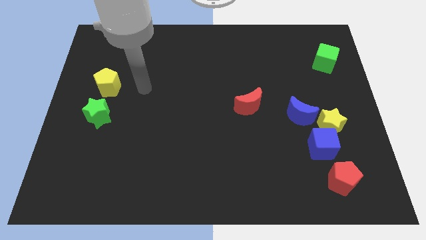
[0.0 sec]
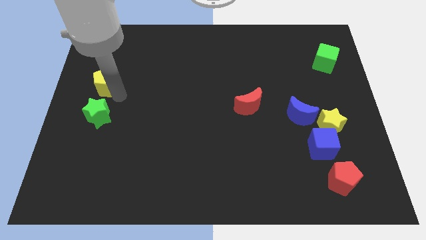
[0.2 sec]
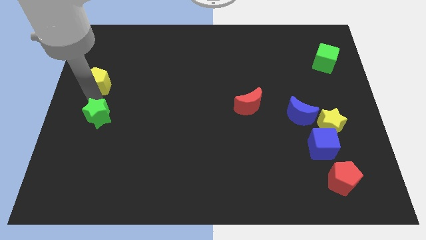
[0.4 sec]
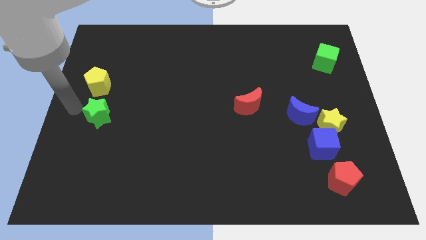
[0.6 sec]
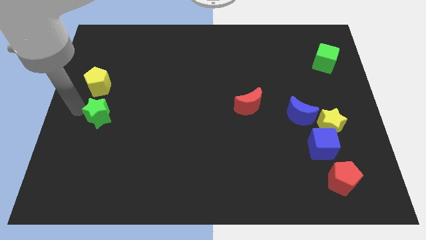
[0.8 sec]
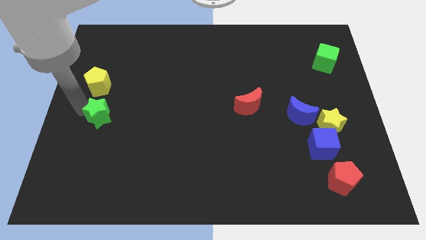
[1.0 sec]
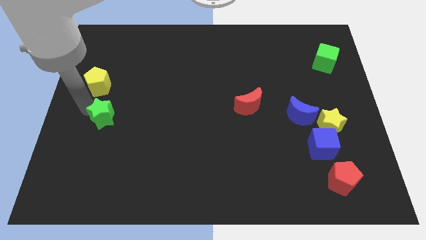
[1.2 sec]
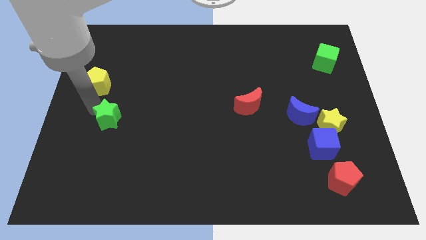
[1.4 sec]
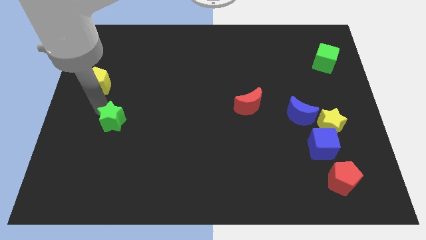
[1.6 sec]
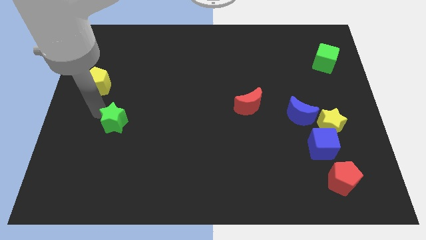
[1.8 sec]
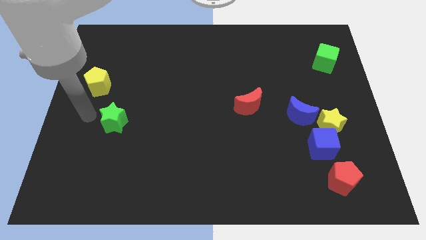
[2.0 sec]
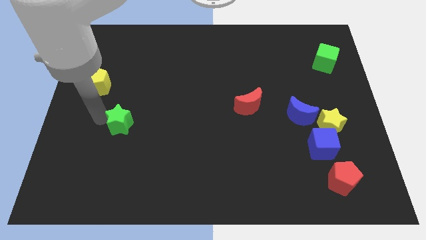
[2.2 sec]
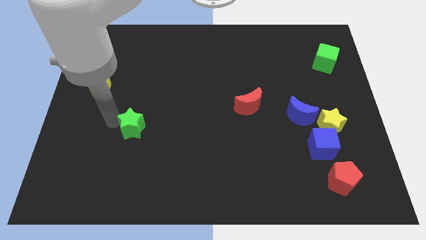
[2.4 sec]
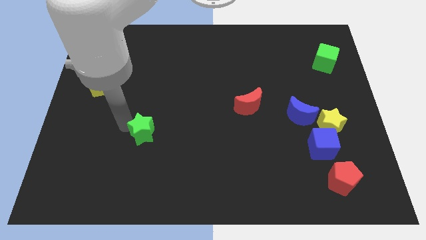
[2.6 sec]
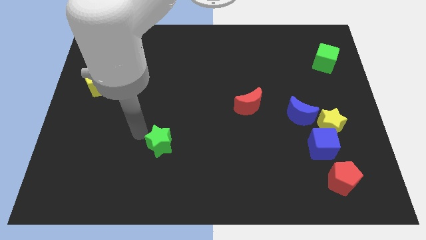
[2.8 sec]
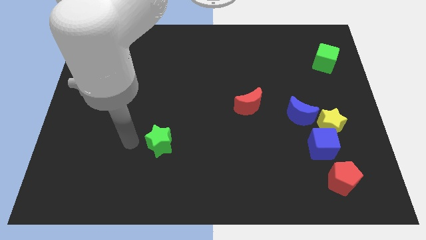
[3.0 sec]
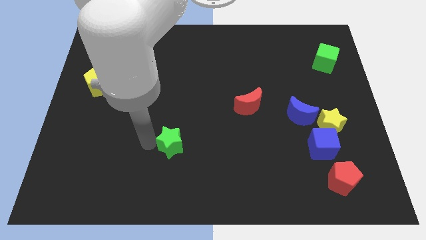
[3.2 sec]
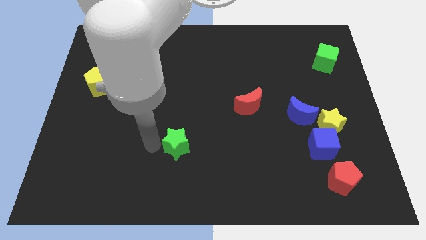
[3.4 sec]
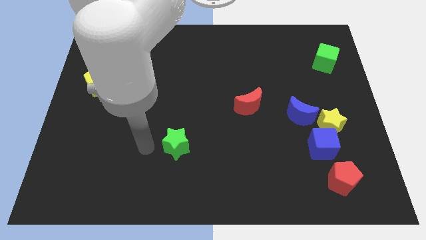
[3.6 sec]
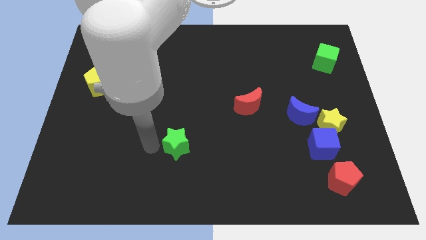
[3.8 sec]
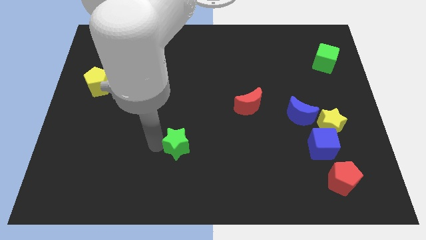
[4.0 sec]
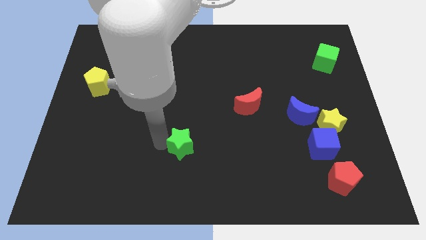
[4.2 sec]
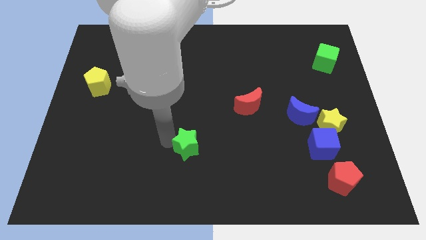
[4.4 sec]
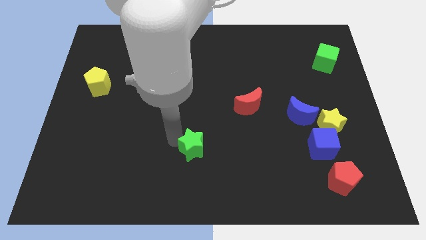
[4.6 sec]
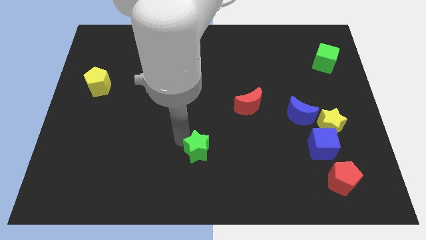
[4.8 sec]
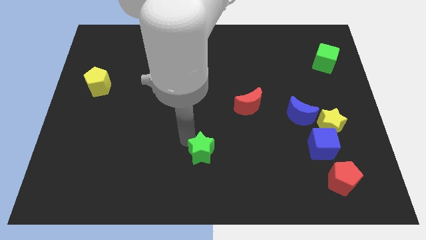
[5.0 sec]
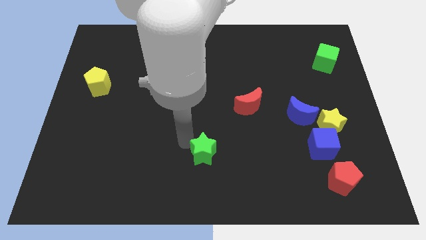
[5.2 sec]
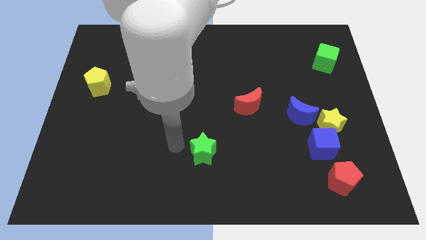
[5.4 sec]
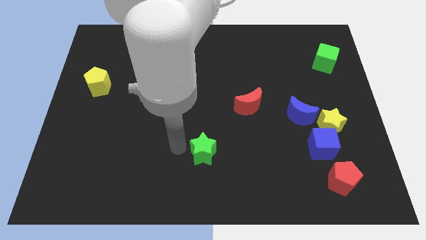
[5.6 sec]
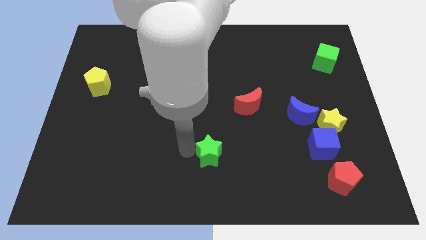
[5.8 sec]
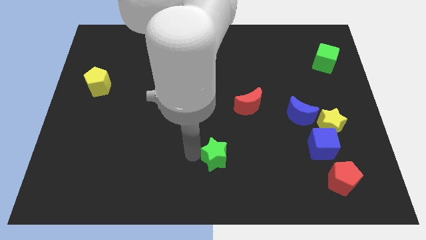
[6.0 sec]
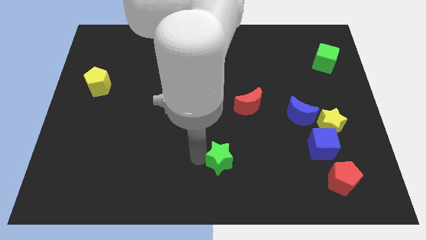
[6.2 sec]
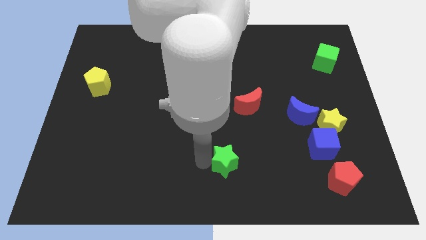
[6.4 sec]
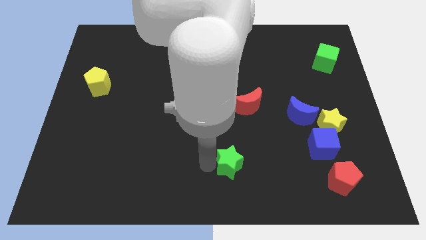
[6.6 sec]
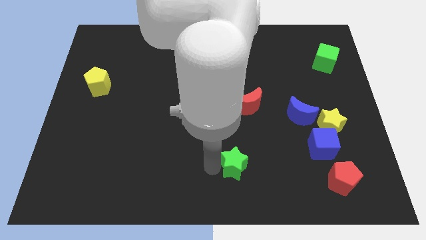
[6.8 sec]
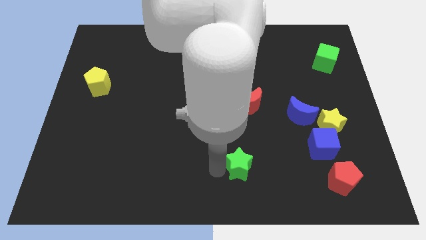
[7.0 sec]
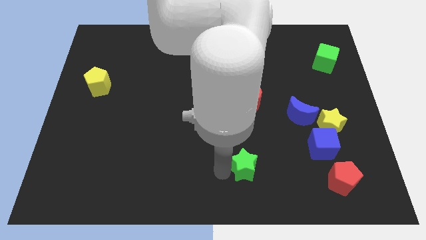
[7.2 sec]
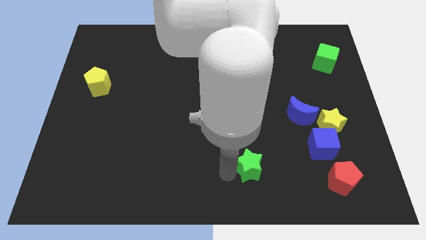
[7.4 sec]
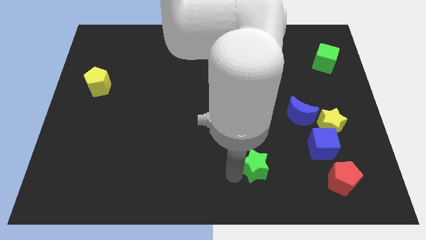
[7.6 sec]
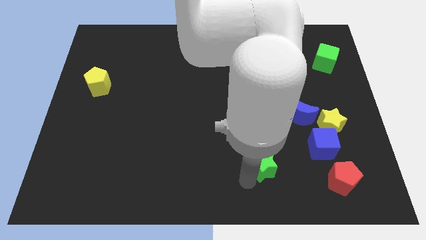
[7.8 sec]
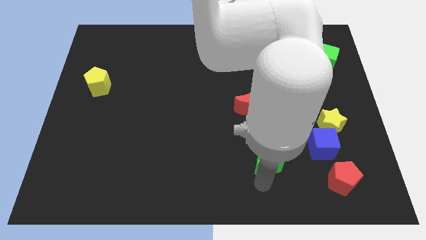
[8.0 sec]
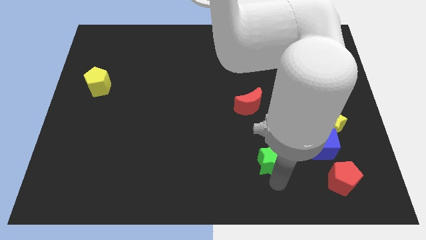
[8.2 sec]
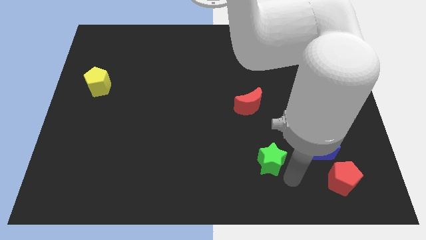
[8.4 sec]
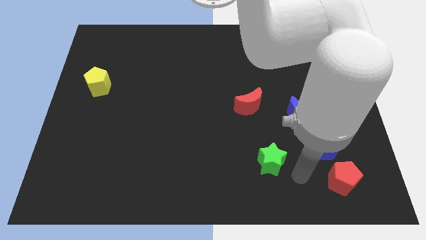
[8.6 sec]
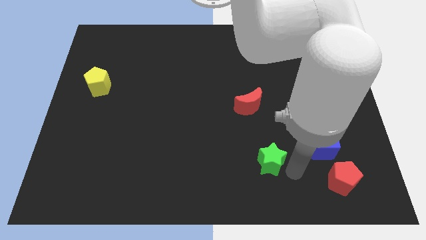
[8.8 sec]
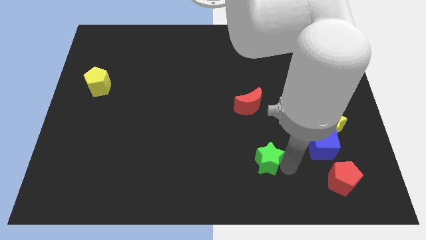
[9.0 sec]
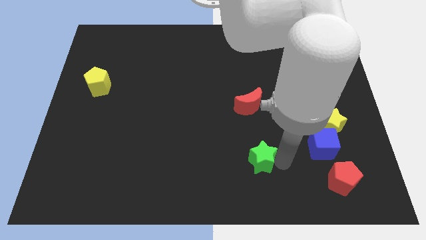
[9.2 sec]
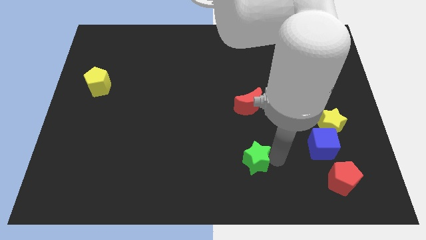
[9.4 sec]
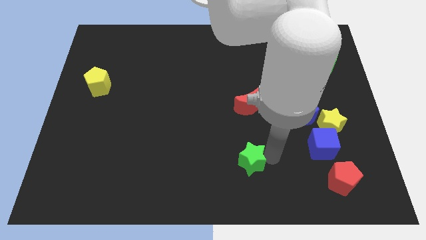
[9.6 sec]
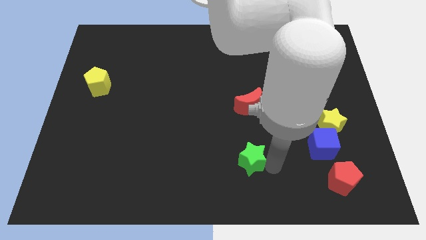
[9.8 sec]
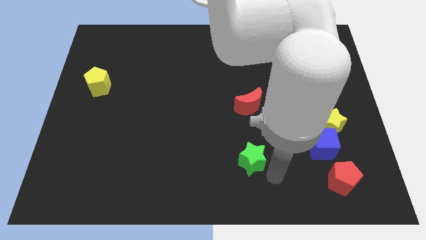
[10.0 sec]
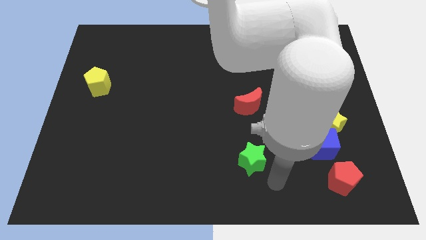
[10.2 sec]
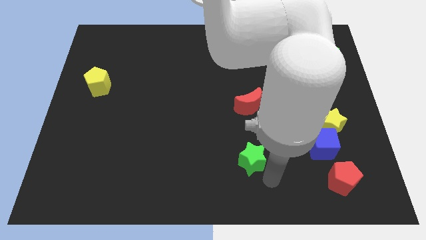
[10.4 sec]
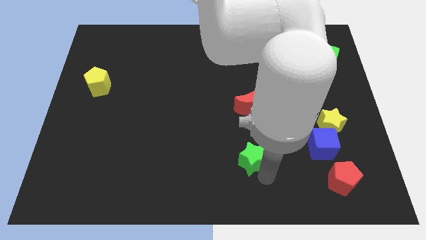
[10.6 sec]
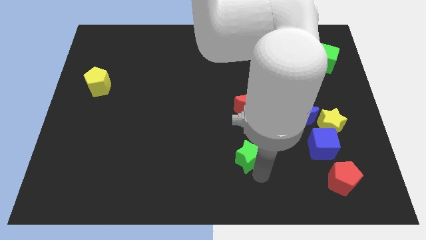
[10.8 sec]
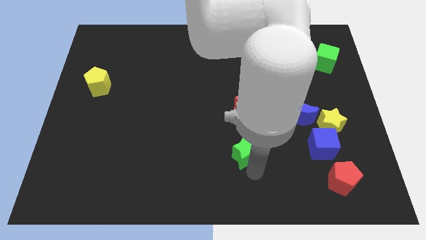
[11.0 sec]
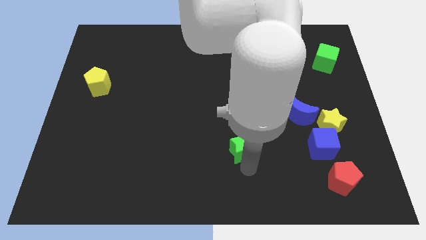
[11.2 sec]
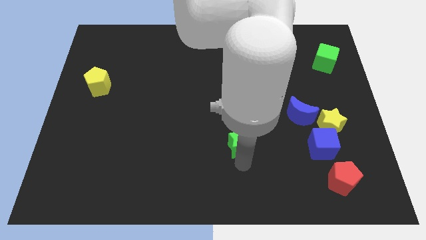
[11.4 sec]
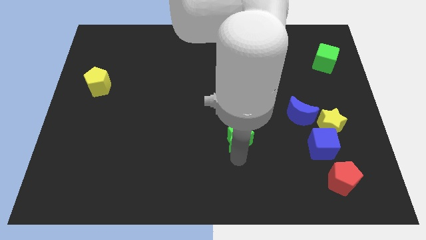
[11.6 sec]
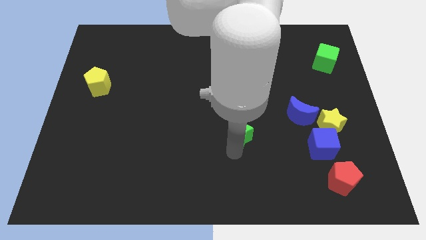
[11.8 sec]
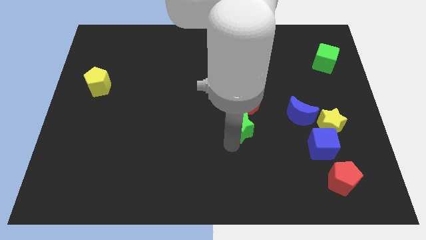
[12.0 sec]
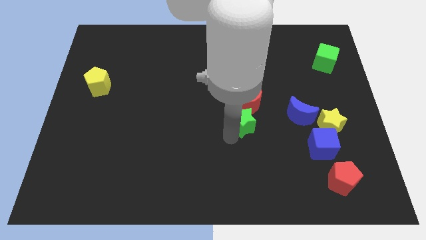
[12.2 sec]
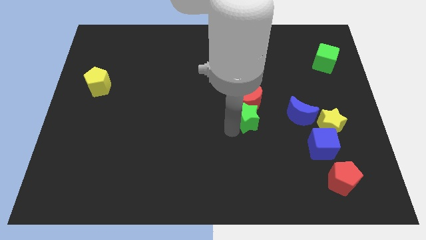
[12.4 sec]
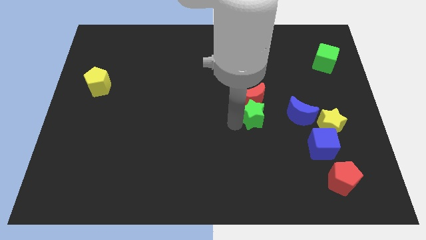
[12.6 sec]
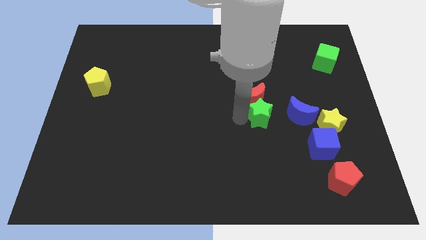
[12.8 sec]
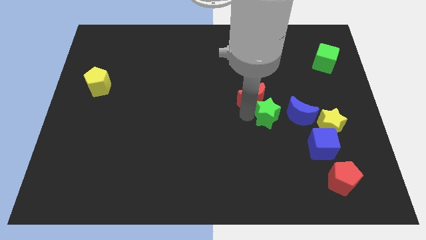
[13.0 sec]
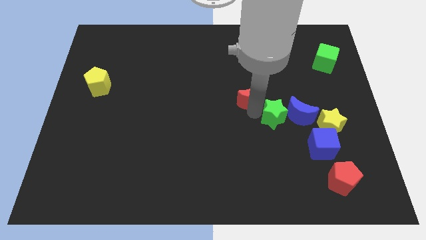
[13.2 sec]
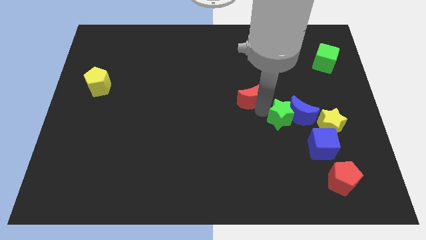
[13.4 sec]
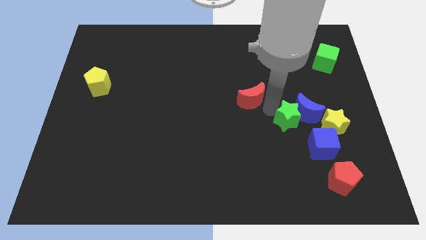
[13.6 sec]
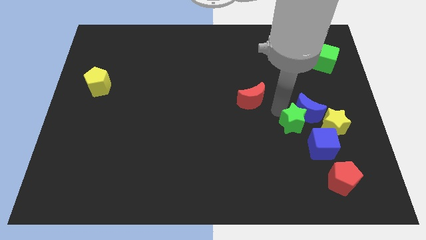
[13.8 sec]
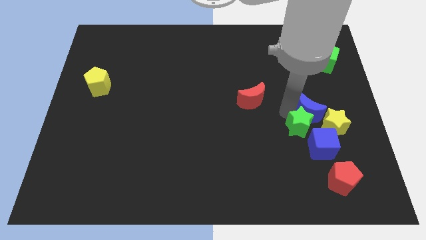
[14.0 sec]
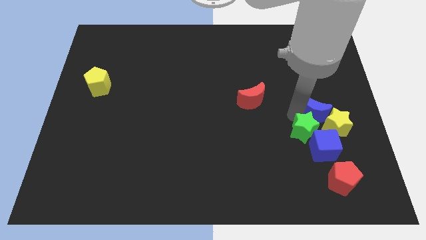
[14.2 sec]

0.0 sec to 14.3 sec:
push the green star close to the blue cube
